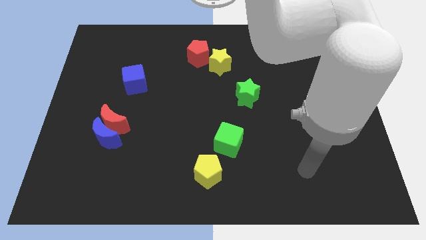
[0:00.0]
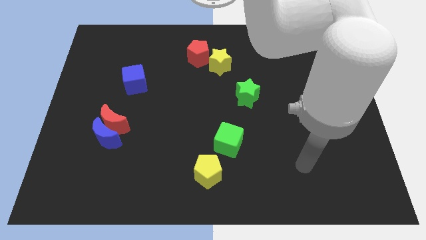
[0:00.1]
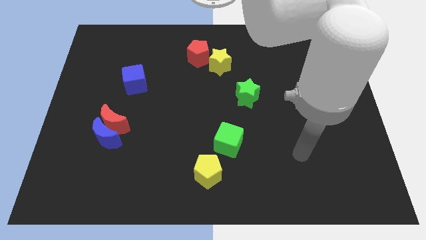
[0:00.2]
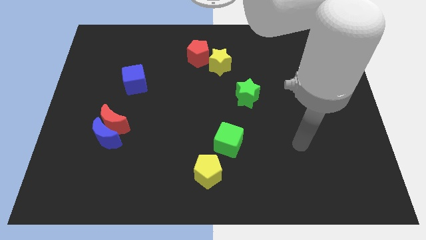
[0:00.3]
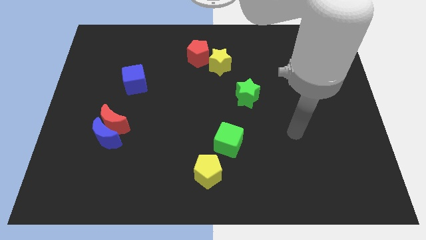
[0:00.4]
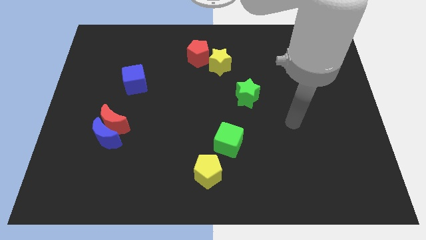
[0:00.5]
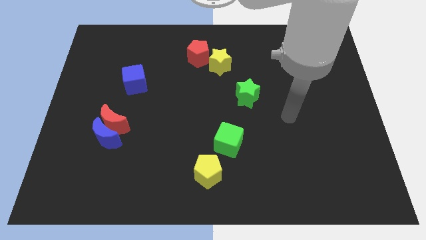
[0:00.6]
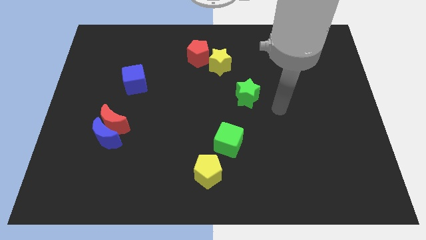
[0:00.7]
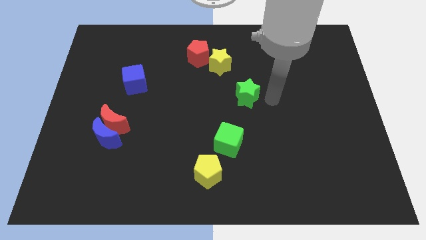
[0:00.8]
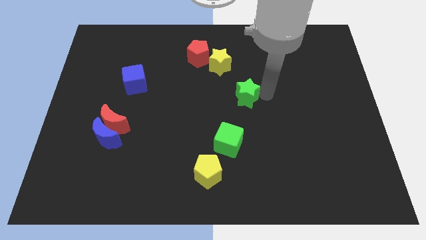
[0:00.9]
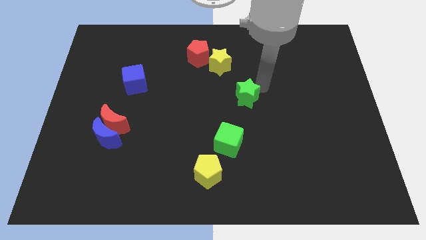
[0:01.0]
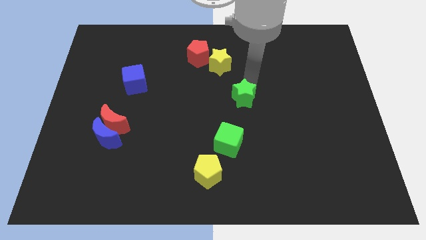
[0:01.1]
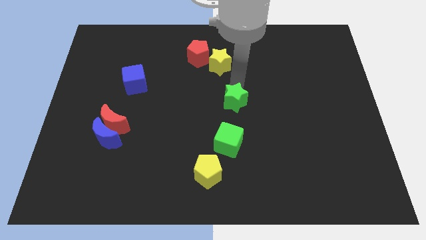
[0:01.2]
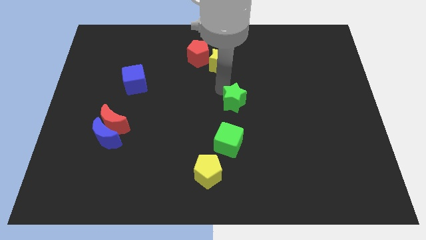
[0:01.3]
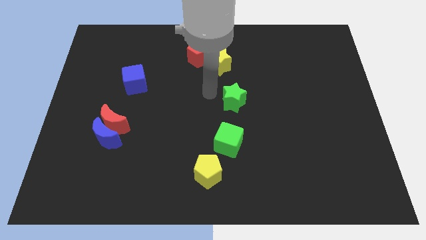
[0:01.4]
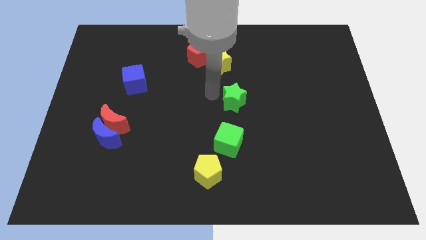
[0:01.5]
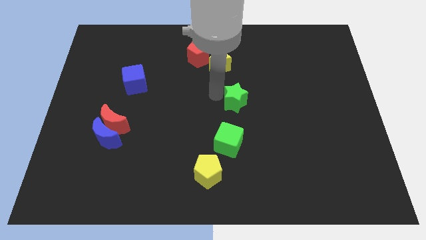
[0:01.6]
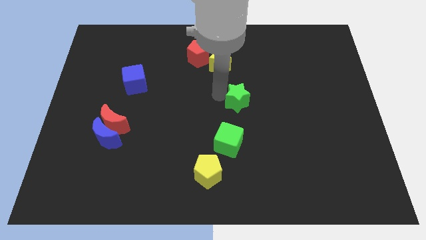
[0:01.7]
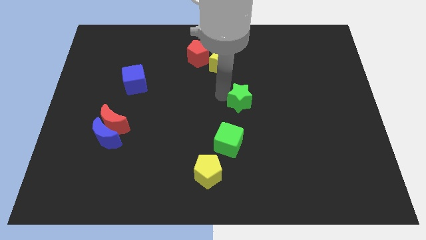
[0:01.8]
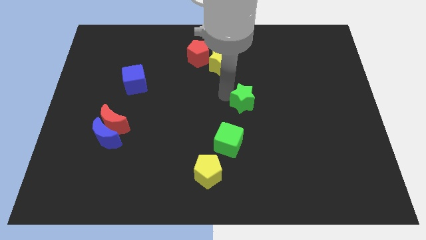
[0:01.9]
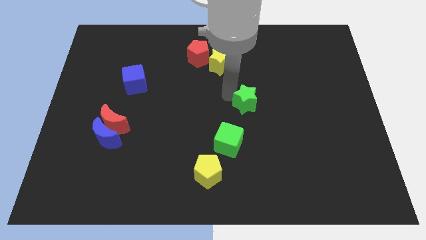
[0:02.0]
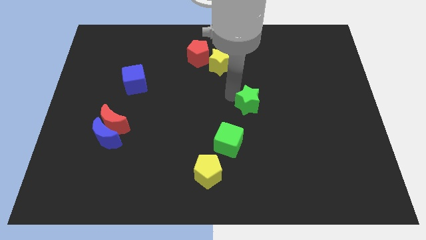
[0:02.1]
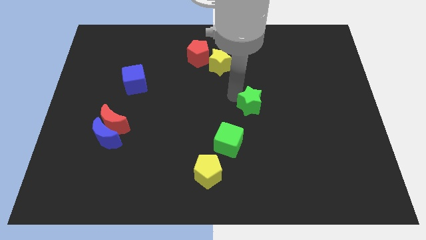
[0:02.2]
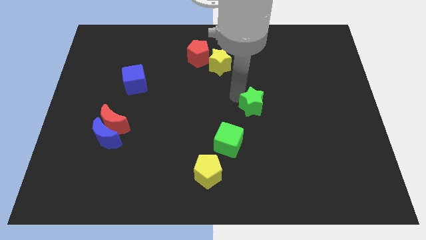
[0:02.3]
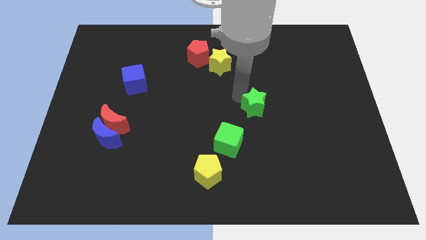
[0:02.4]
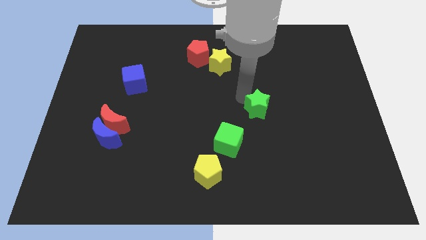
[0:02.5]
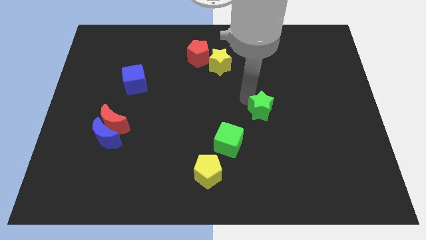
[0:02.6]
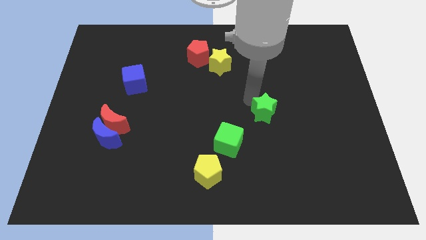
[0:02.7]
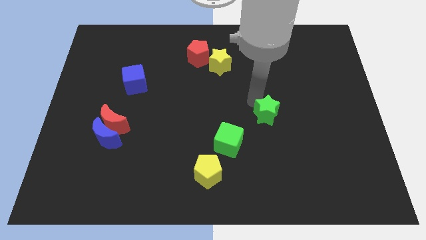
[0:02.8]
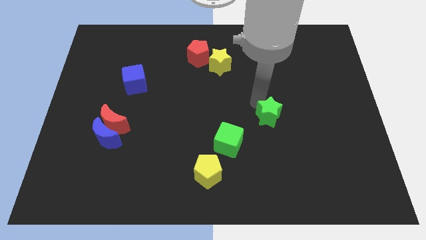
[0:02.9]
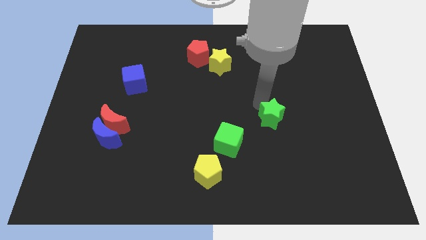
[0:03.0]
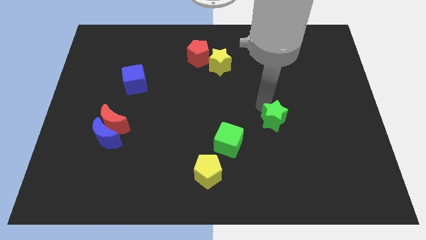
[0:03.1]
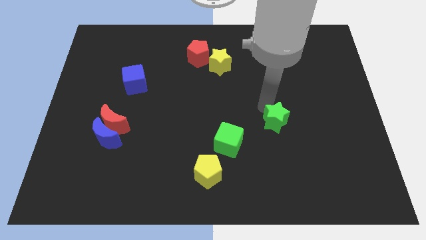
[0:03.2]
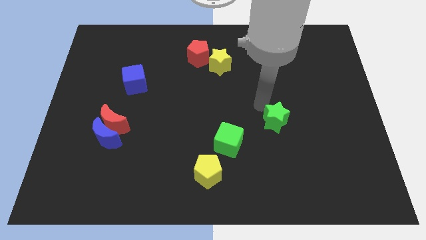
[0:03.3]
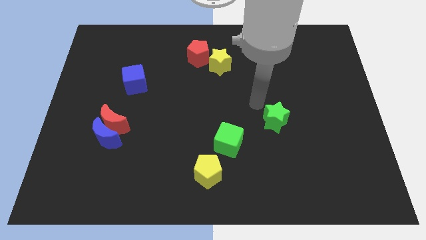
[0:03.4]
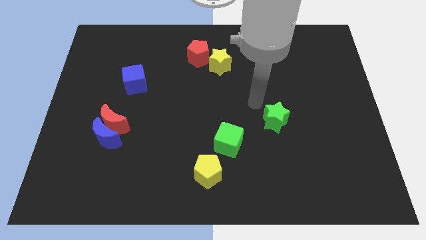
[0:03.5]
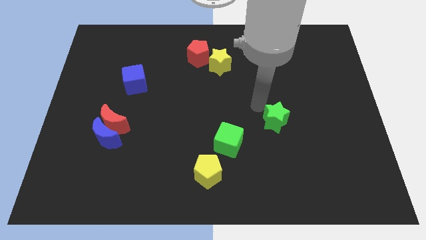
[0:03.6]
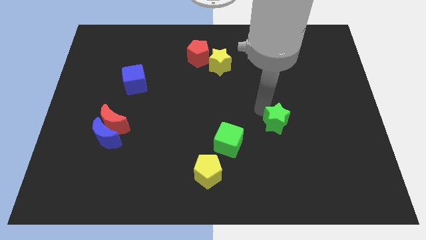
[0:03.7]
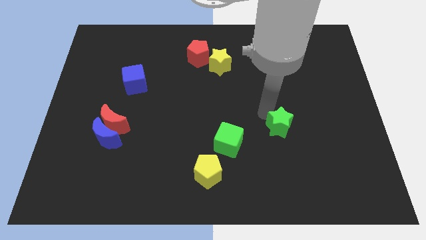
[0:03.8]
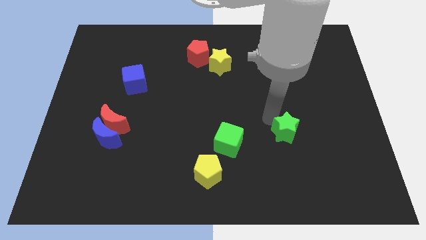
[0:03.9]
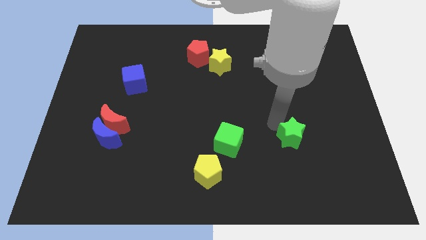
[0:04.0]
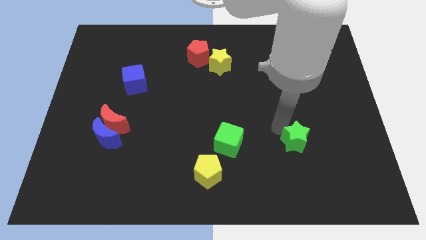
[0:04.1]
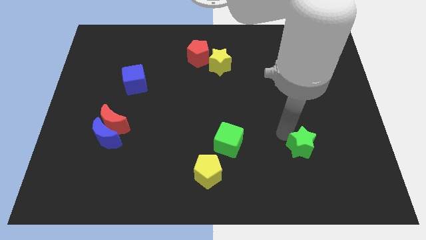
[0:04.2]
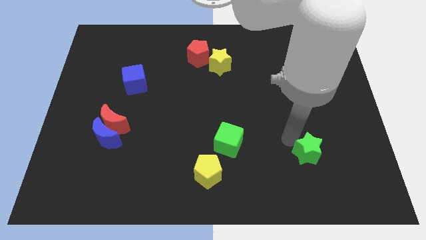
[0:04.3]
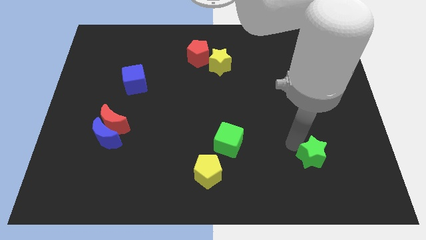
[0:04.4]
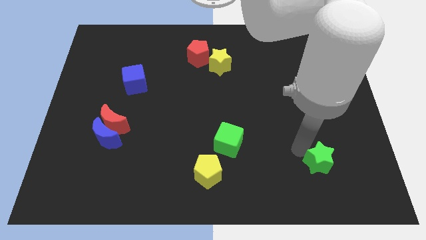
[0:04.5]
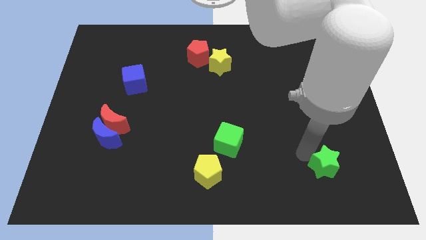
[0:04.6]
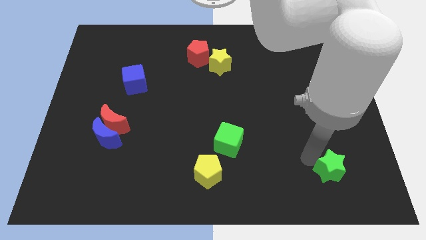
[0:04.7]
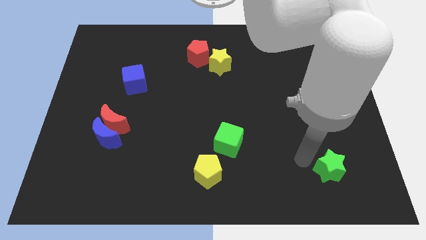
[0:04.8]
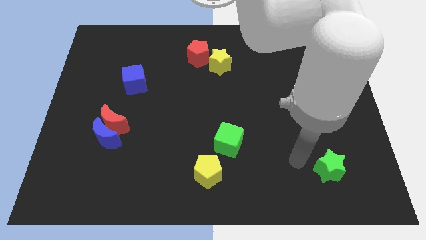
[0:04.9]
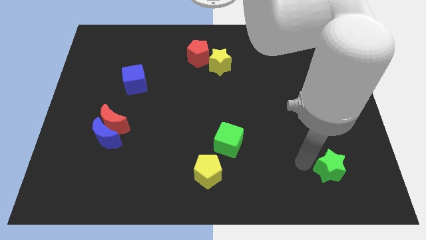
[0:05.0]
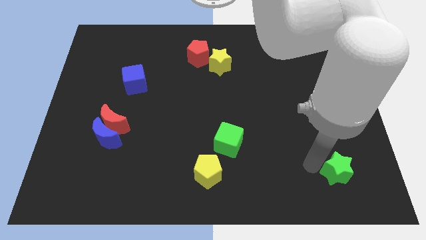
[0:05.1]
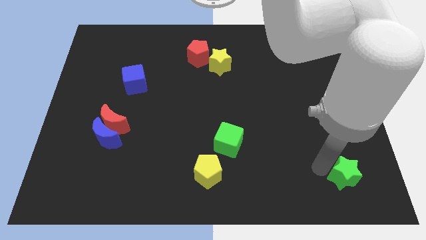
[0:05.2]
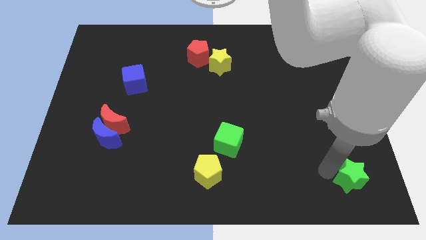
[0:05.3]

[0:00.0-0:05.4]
push the green star to the bottom right corner

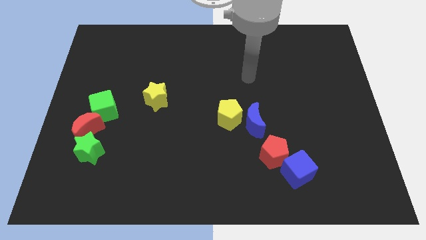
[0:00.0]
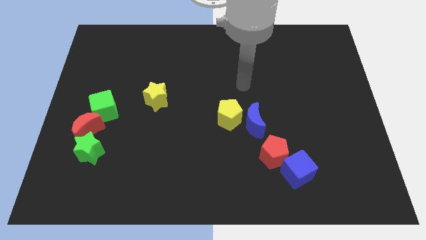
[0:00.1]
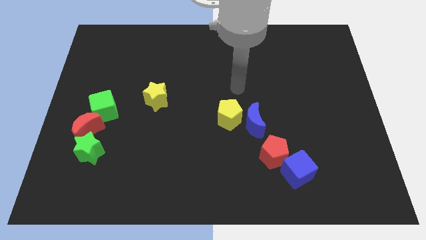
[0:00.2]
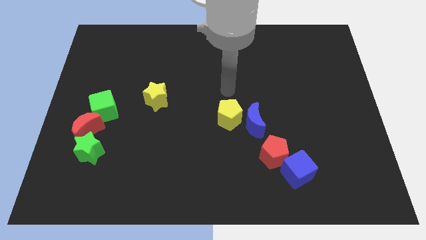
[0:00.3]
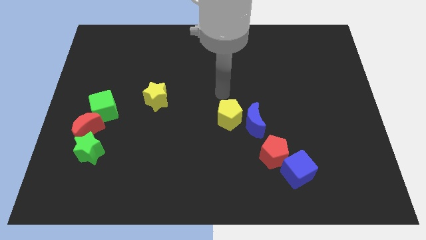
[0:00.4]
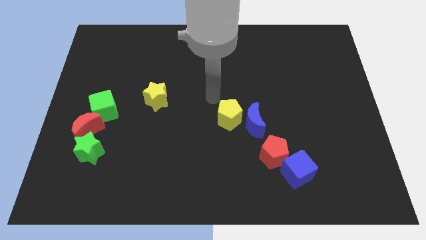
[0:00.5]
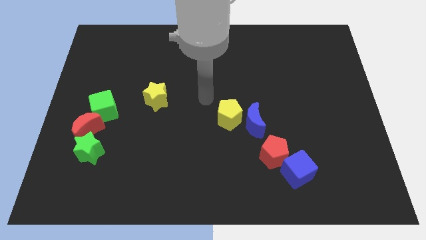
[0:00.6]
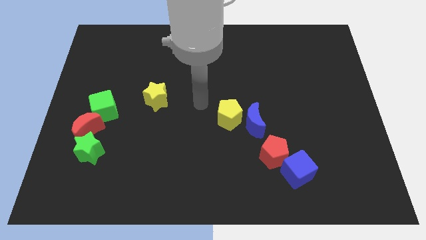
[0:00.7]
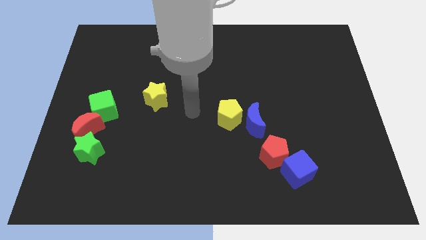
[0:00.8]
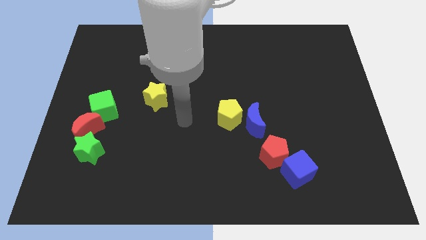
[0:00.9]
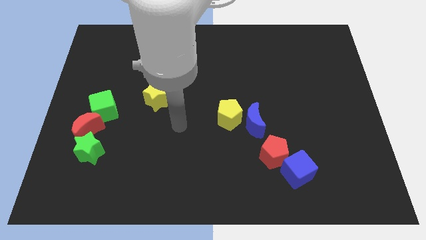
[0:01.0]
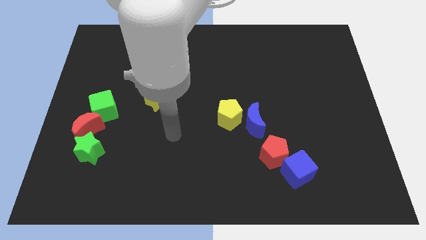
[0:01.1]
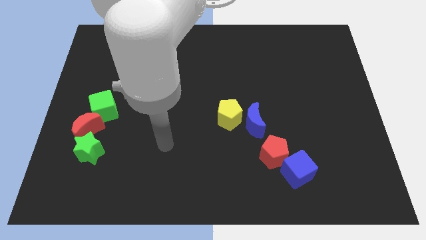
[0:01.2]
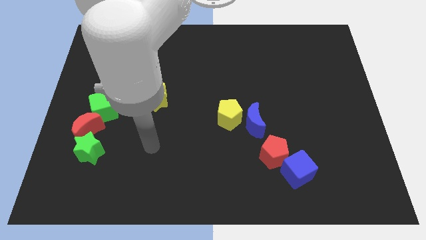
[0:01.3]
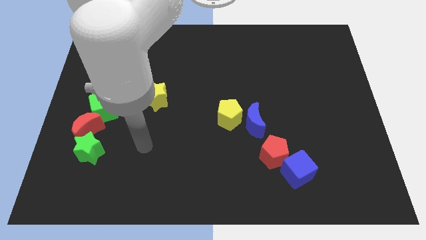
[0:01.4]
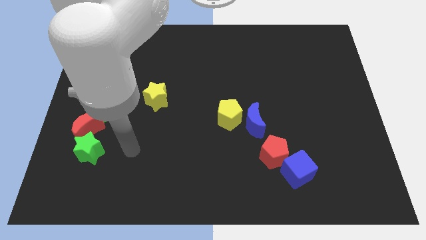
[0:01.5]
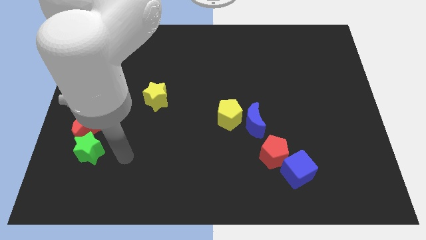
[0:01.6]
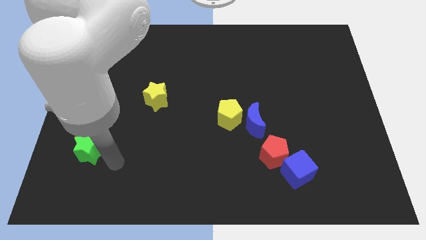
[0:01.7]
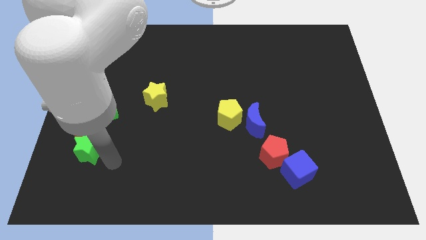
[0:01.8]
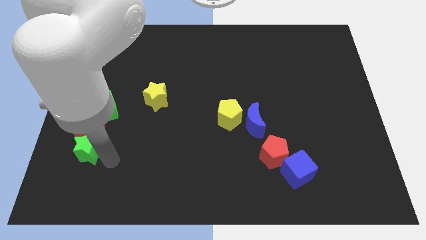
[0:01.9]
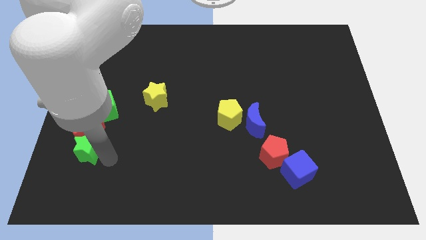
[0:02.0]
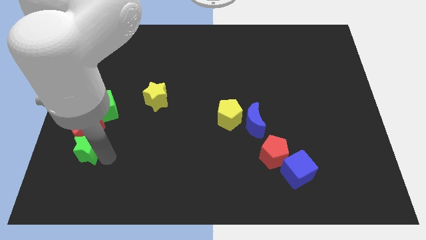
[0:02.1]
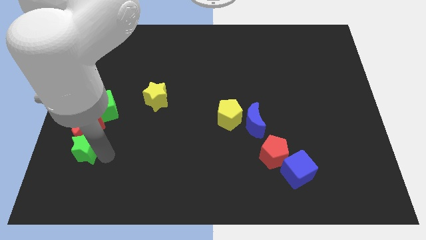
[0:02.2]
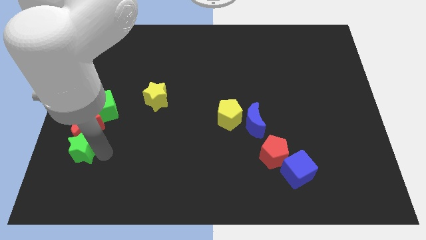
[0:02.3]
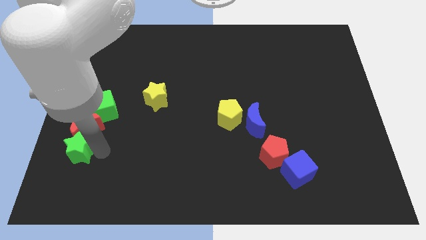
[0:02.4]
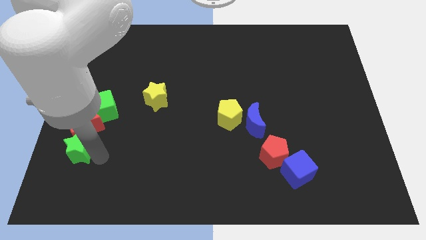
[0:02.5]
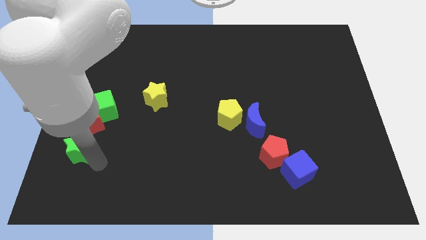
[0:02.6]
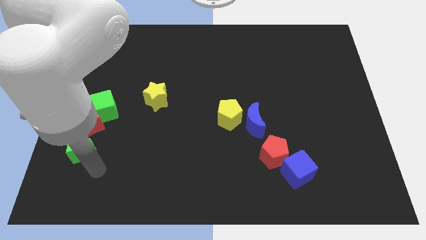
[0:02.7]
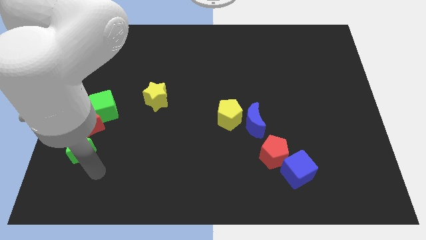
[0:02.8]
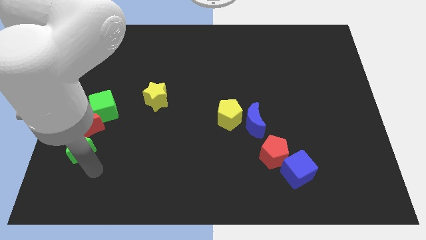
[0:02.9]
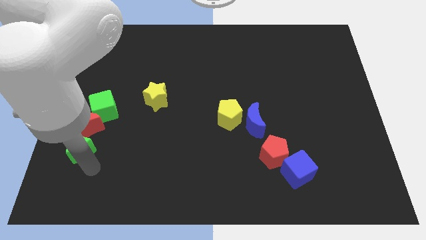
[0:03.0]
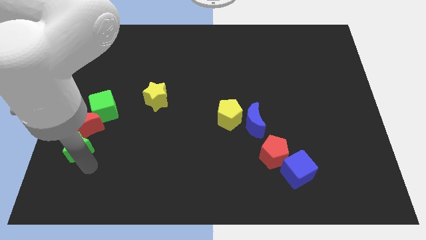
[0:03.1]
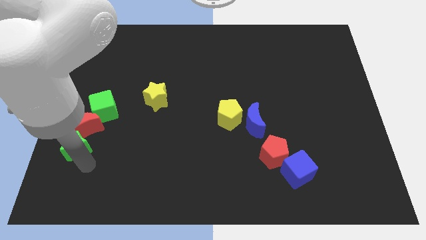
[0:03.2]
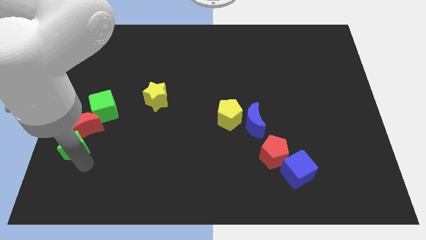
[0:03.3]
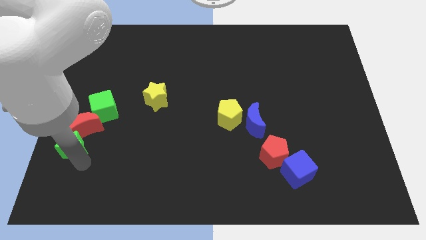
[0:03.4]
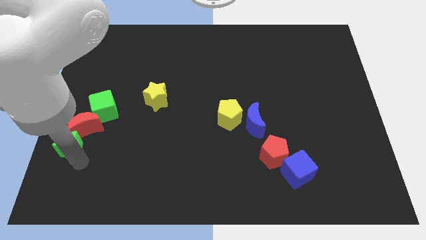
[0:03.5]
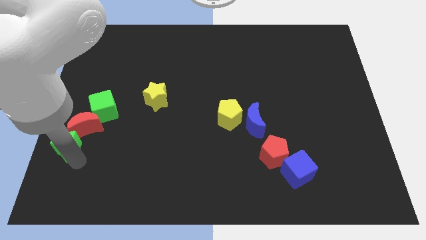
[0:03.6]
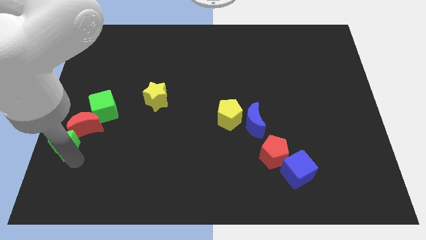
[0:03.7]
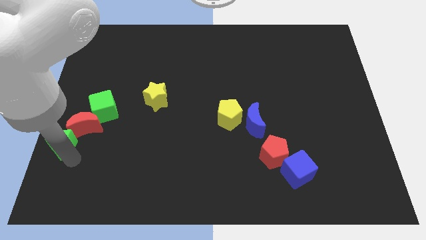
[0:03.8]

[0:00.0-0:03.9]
slide the green star to the left side
